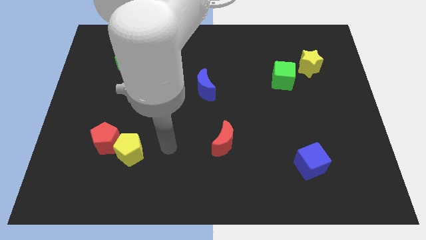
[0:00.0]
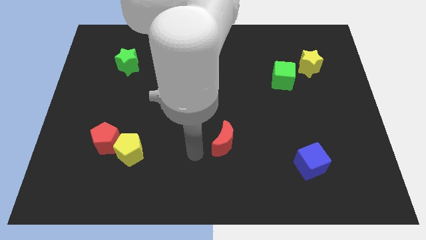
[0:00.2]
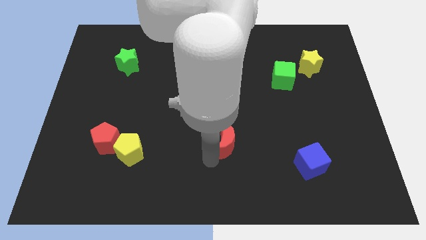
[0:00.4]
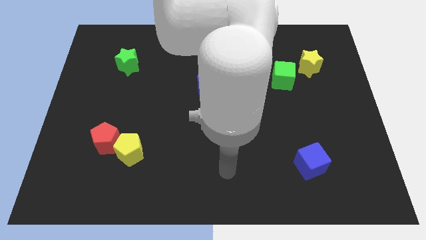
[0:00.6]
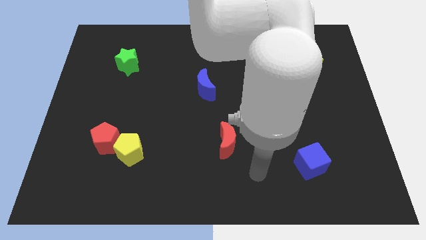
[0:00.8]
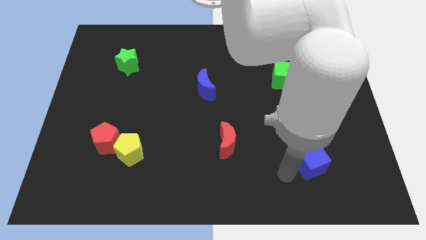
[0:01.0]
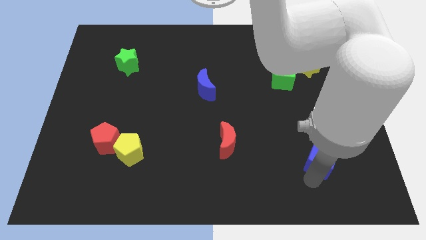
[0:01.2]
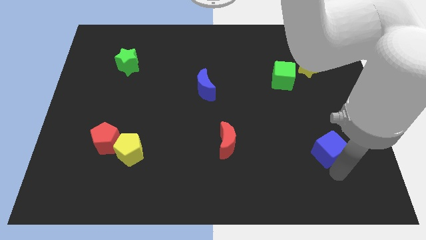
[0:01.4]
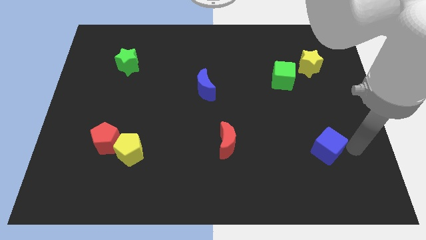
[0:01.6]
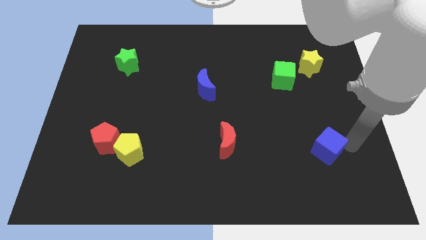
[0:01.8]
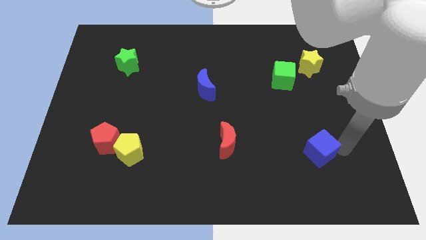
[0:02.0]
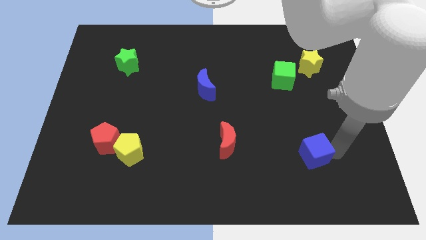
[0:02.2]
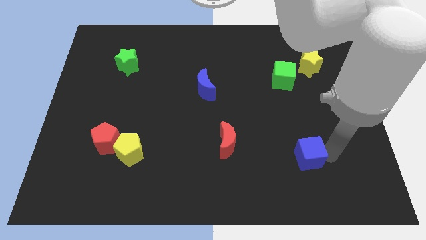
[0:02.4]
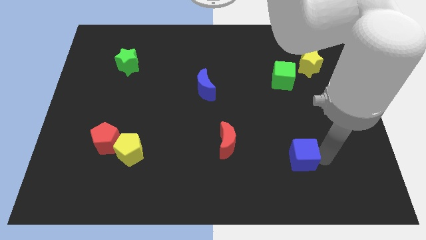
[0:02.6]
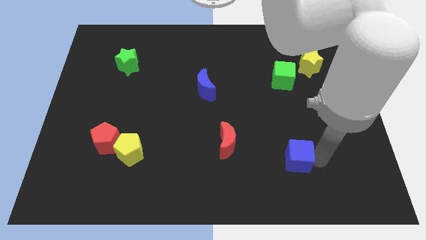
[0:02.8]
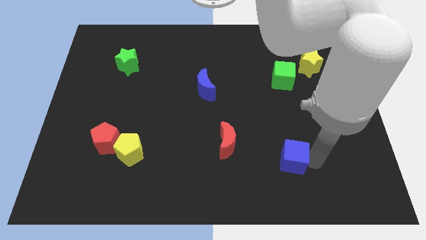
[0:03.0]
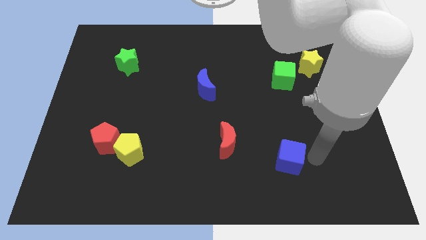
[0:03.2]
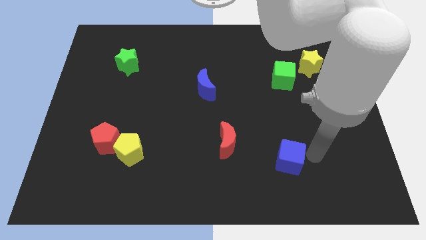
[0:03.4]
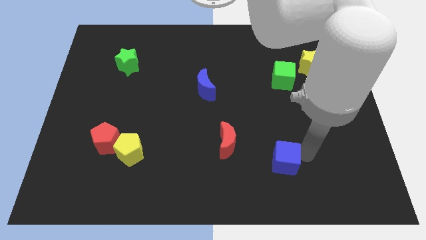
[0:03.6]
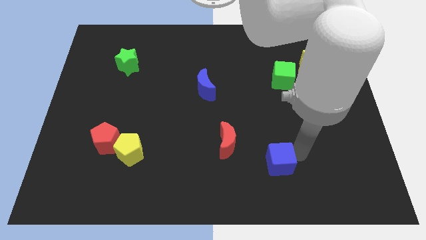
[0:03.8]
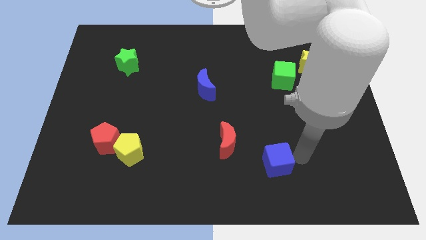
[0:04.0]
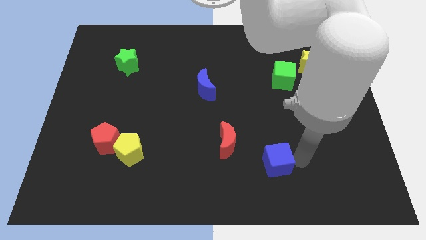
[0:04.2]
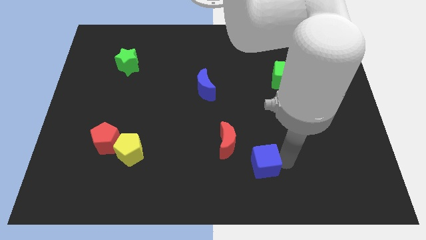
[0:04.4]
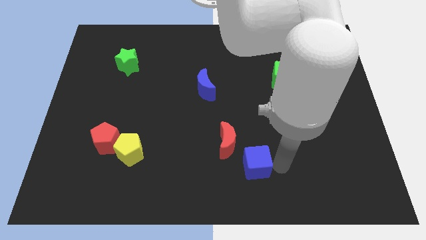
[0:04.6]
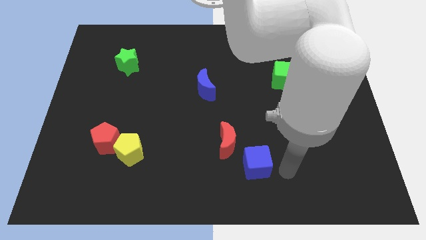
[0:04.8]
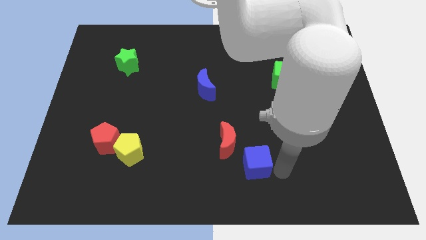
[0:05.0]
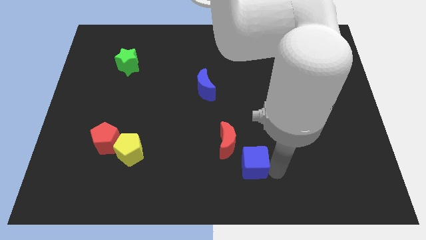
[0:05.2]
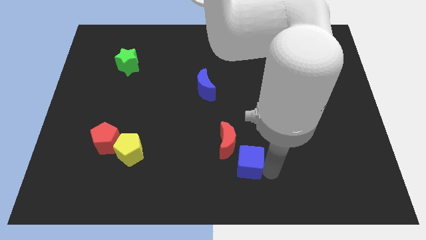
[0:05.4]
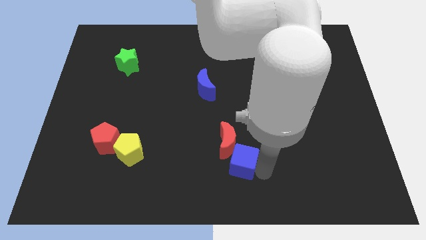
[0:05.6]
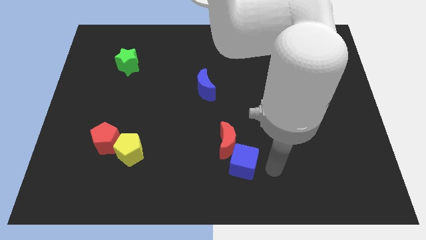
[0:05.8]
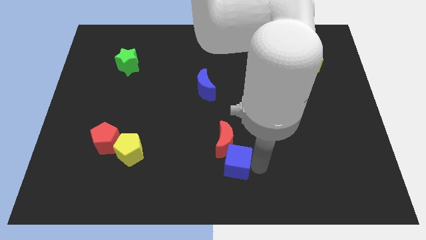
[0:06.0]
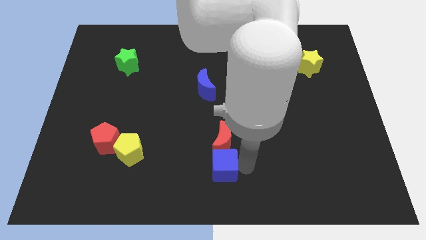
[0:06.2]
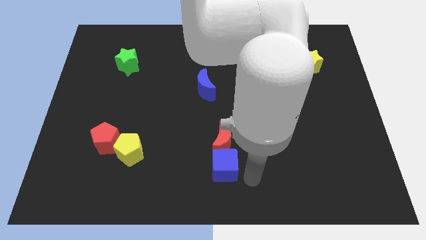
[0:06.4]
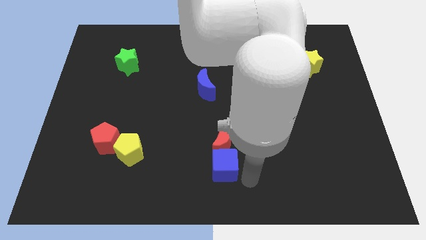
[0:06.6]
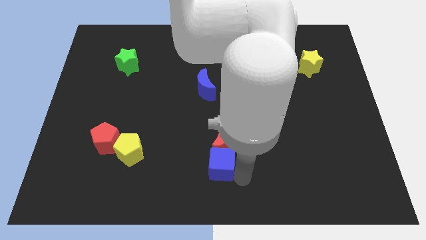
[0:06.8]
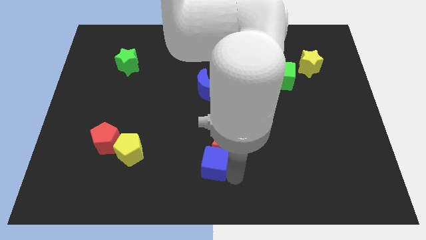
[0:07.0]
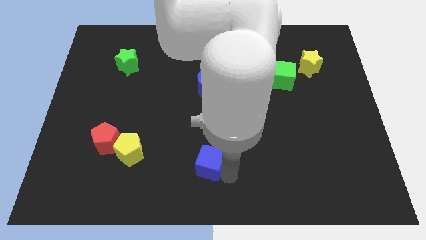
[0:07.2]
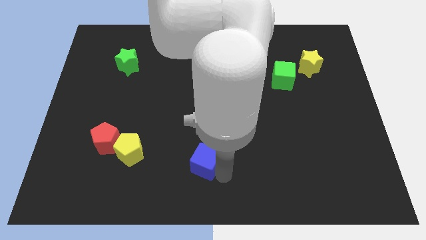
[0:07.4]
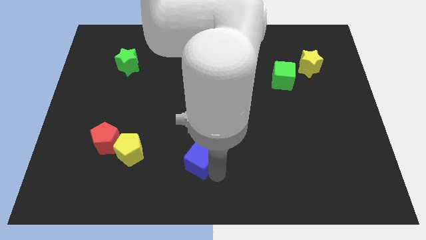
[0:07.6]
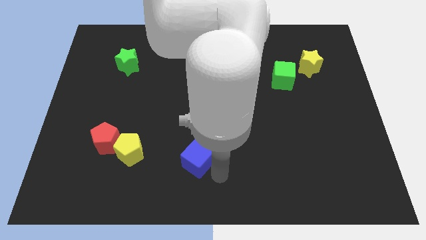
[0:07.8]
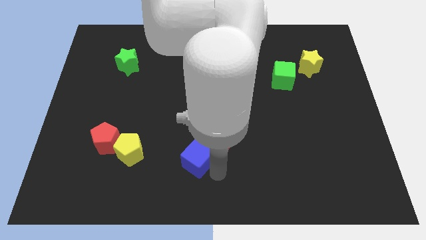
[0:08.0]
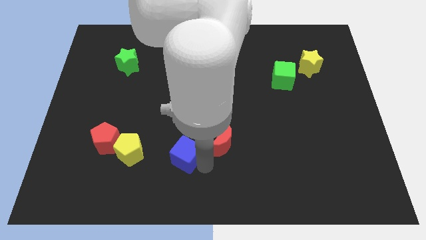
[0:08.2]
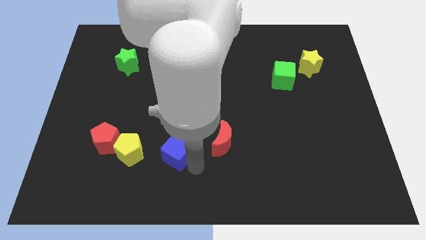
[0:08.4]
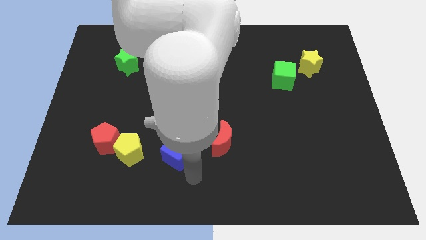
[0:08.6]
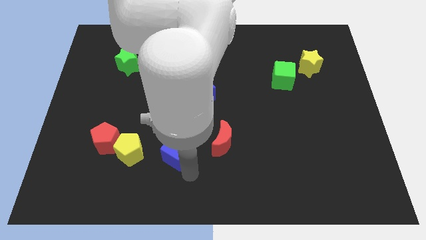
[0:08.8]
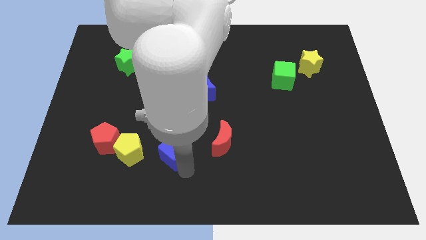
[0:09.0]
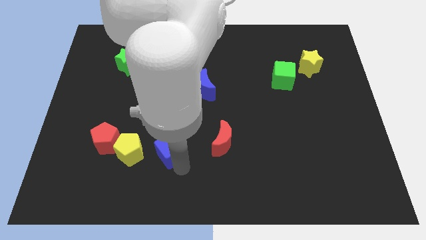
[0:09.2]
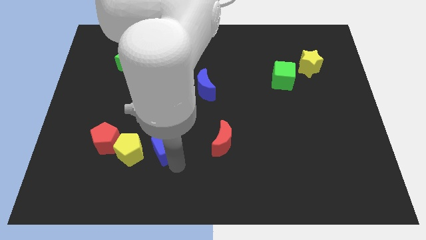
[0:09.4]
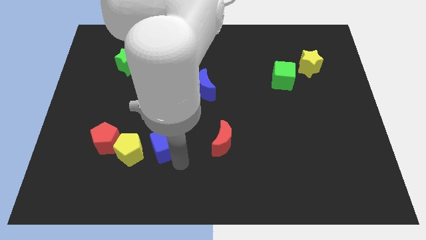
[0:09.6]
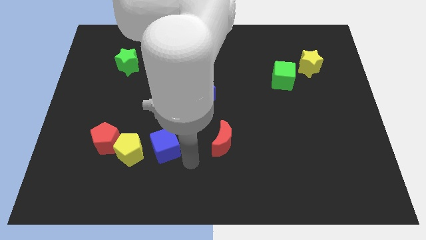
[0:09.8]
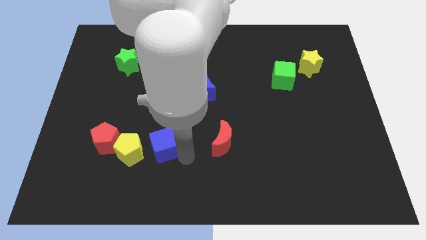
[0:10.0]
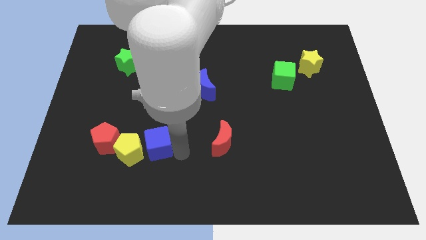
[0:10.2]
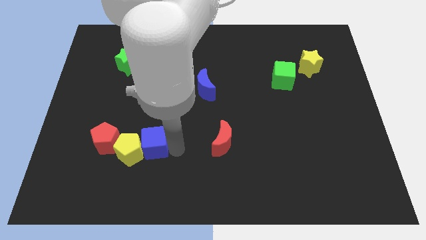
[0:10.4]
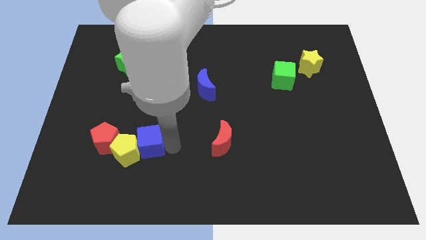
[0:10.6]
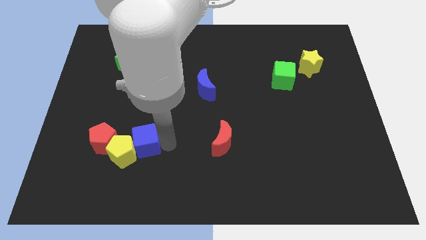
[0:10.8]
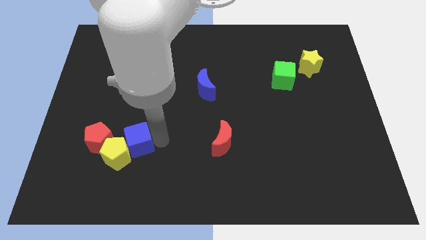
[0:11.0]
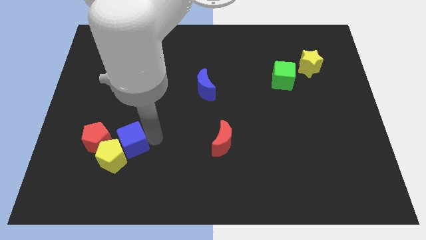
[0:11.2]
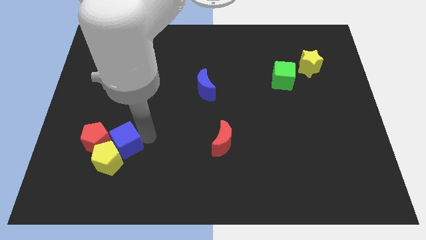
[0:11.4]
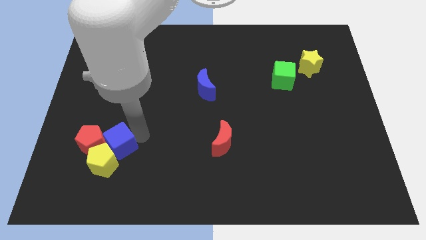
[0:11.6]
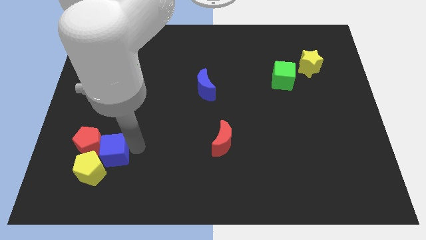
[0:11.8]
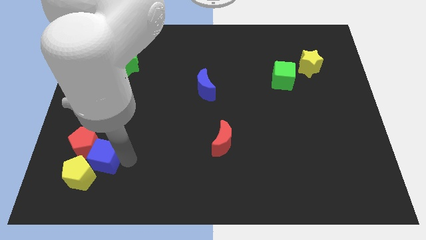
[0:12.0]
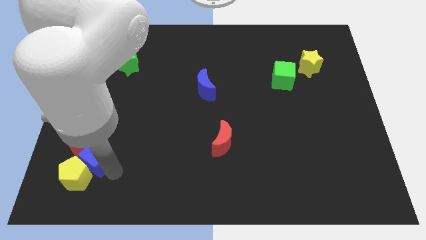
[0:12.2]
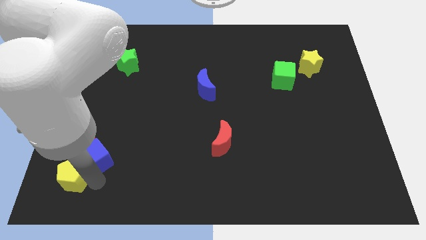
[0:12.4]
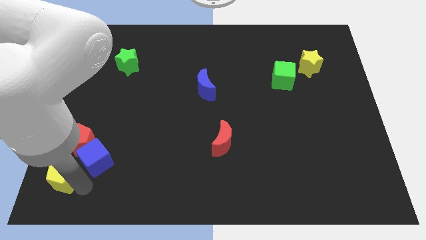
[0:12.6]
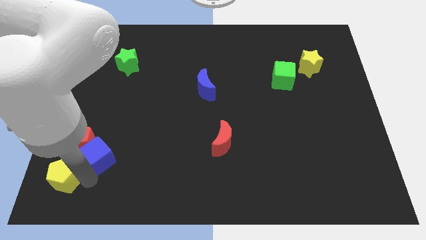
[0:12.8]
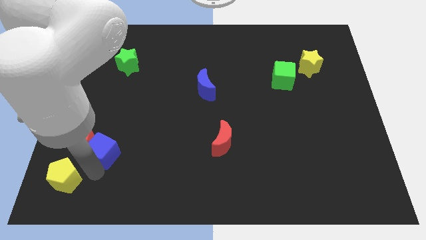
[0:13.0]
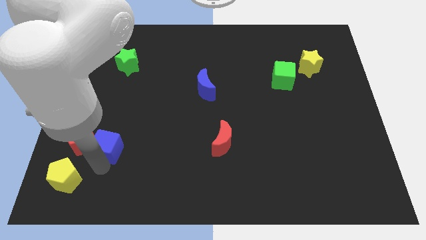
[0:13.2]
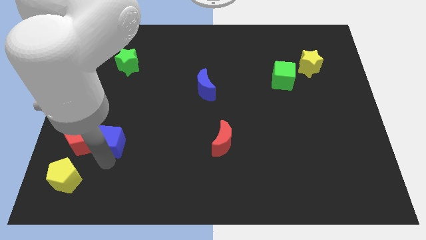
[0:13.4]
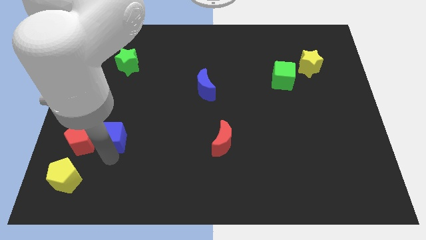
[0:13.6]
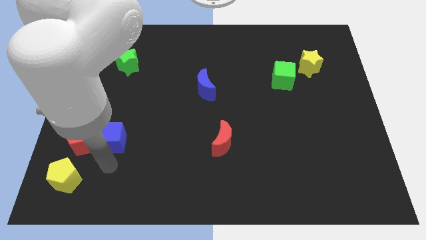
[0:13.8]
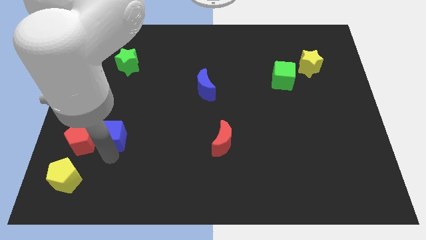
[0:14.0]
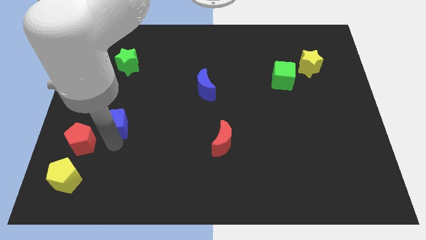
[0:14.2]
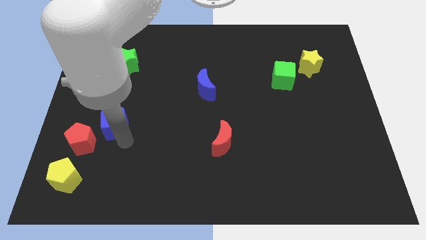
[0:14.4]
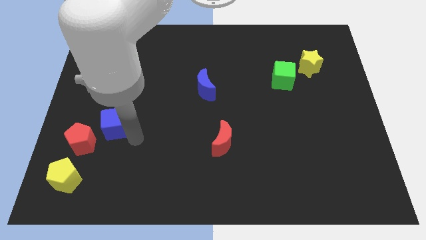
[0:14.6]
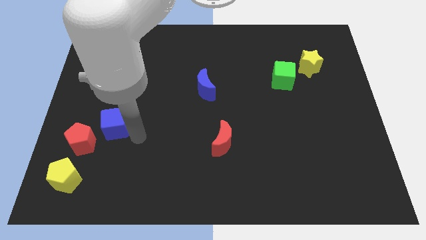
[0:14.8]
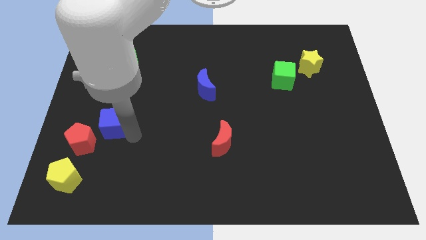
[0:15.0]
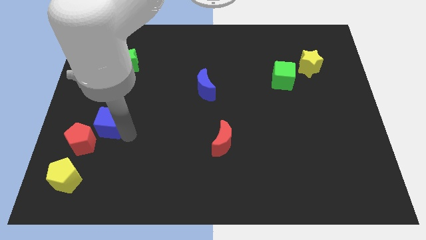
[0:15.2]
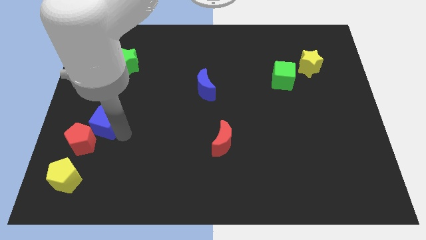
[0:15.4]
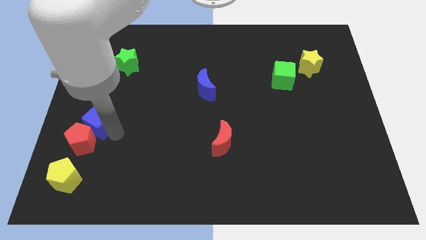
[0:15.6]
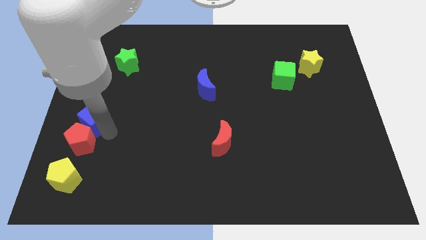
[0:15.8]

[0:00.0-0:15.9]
move the blue cube to the left side
